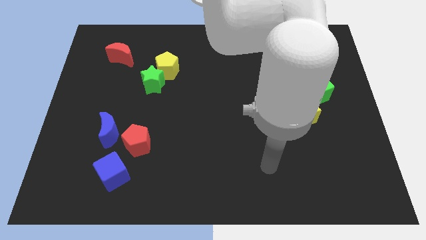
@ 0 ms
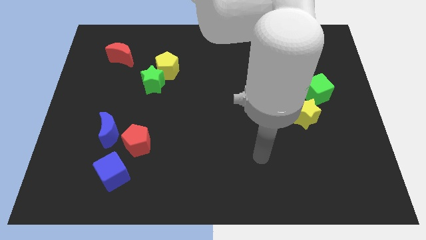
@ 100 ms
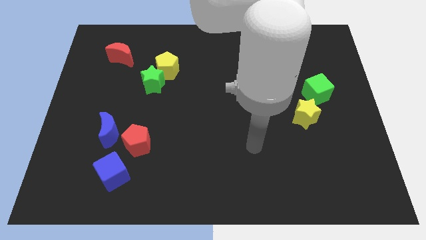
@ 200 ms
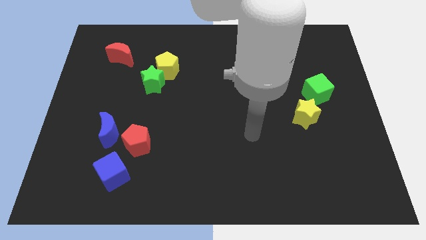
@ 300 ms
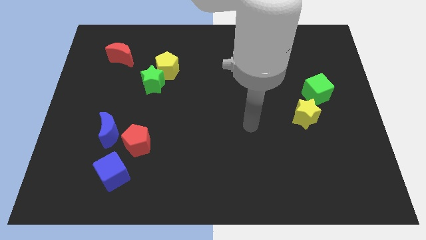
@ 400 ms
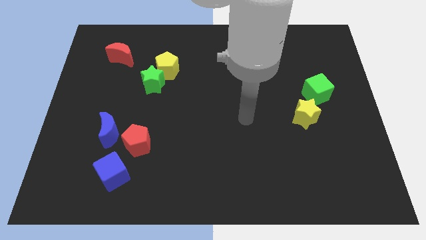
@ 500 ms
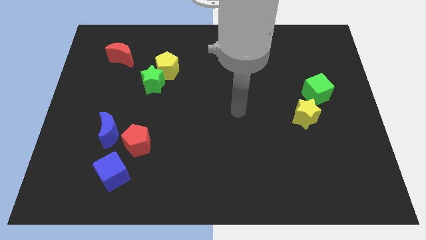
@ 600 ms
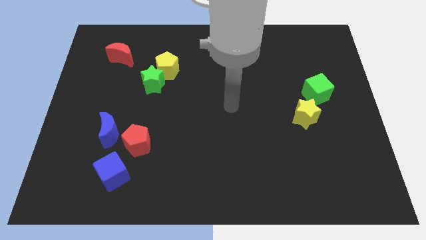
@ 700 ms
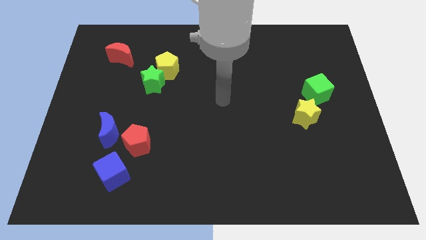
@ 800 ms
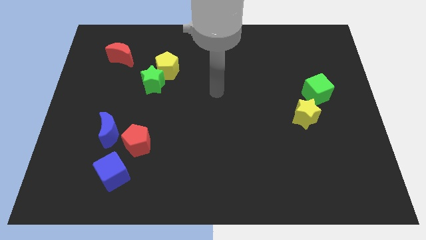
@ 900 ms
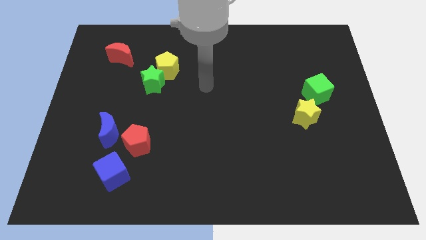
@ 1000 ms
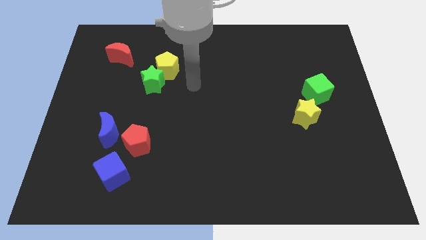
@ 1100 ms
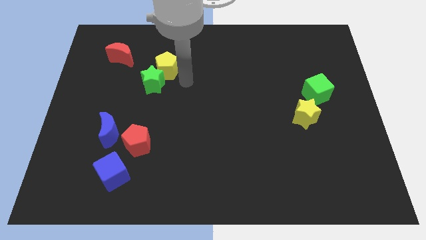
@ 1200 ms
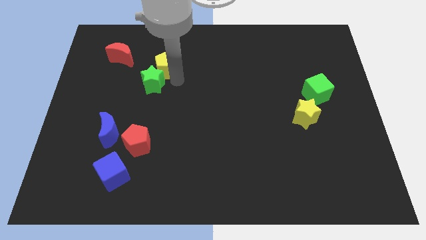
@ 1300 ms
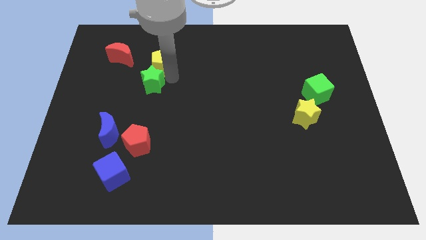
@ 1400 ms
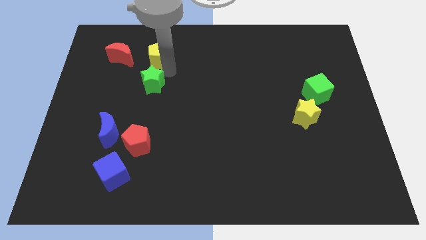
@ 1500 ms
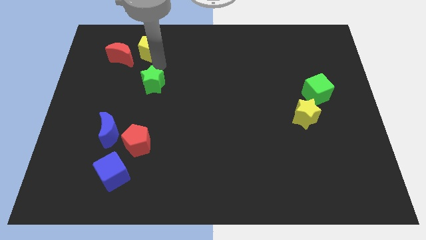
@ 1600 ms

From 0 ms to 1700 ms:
pull the green star apart from the yellow pentagon

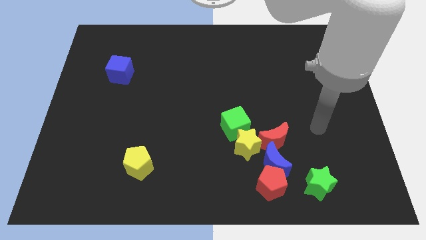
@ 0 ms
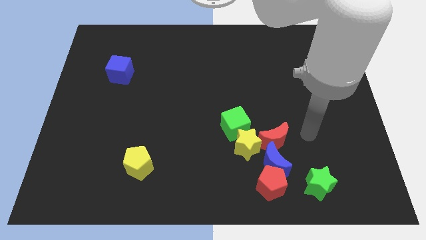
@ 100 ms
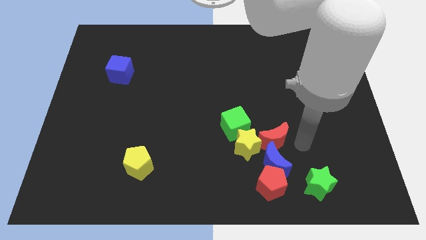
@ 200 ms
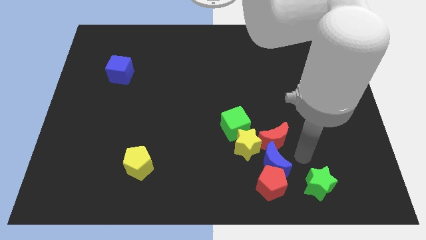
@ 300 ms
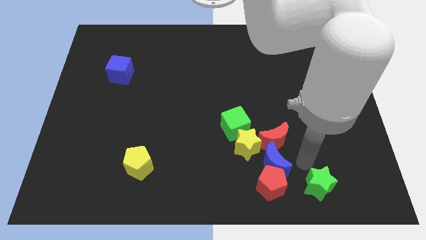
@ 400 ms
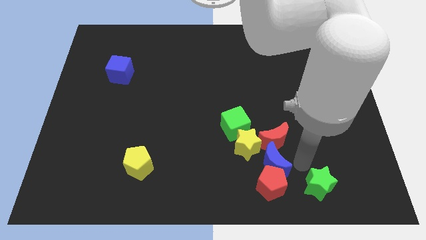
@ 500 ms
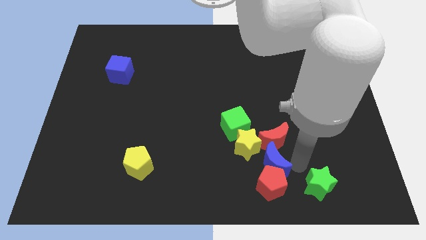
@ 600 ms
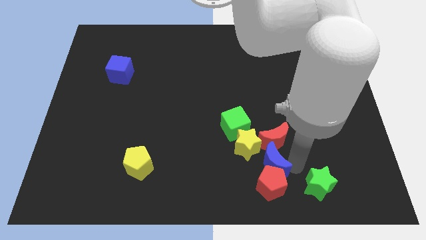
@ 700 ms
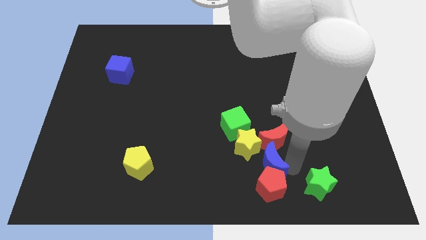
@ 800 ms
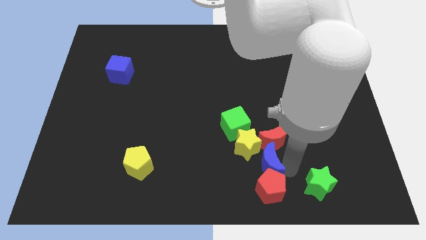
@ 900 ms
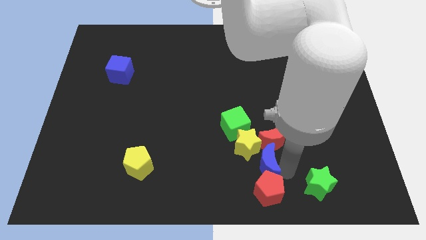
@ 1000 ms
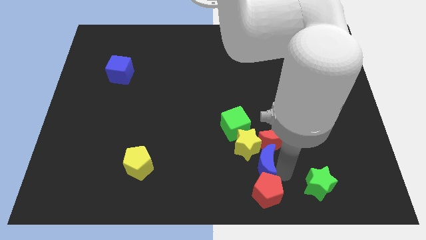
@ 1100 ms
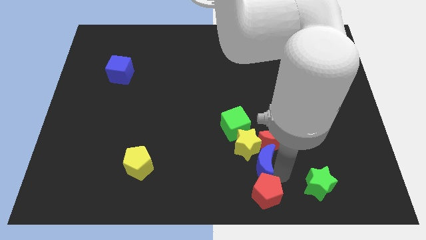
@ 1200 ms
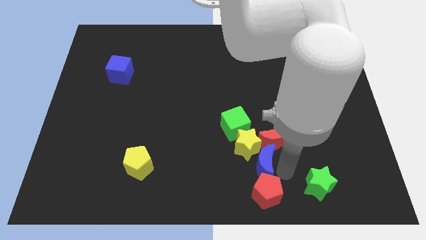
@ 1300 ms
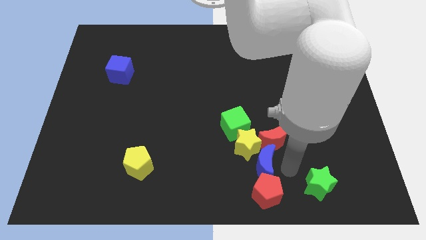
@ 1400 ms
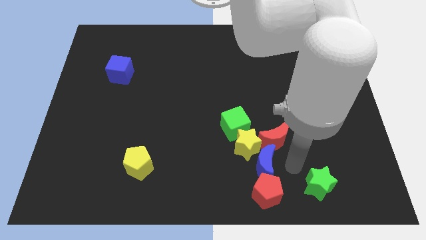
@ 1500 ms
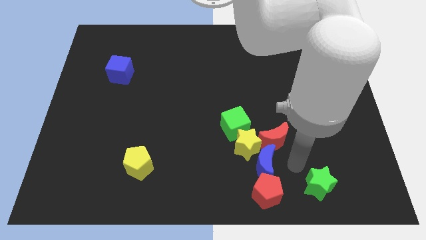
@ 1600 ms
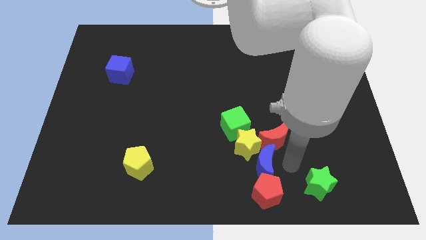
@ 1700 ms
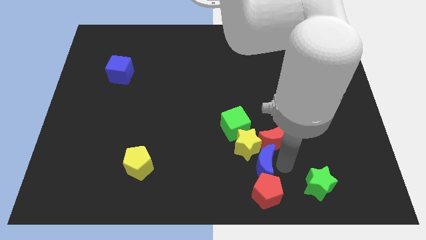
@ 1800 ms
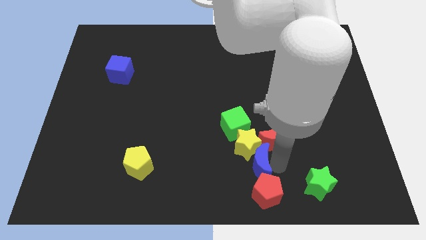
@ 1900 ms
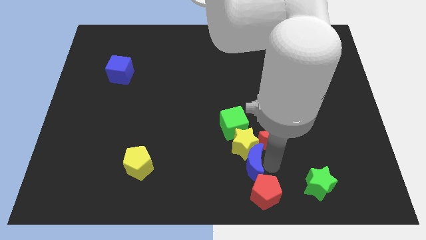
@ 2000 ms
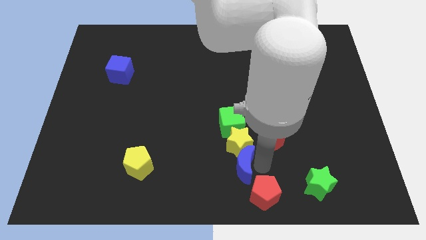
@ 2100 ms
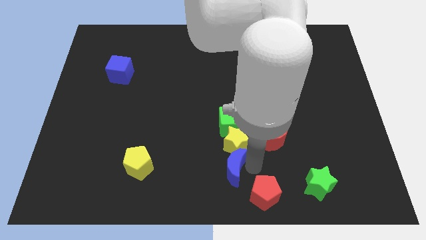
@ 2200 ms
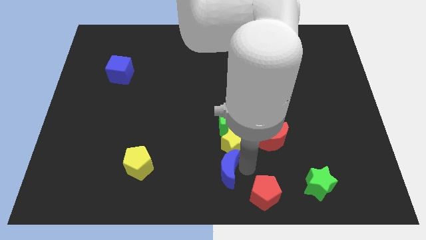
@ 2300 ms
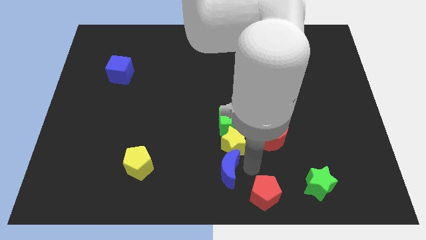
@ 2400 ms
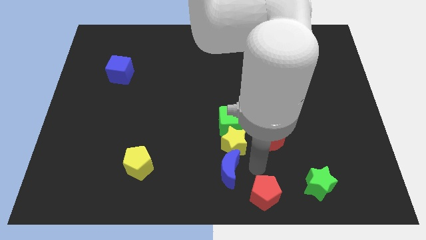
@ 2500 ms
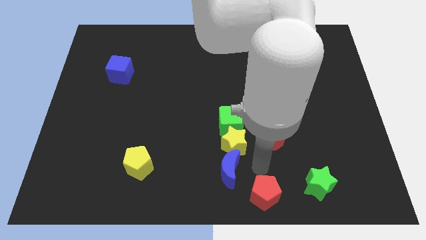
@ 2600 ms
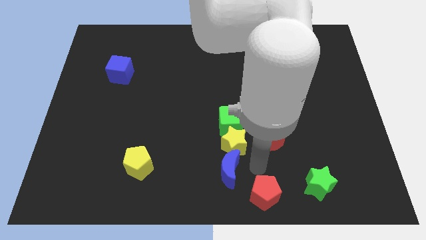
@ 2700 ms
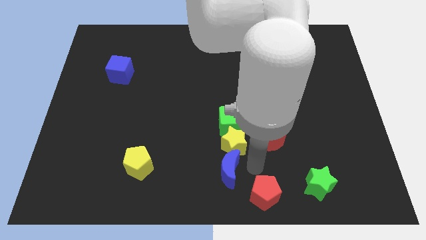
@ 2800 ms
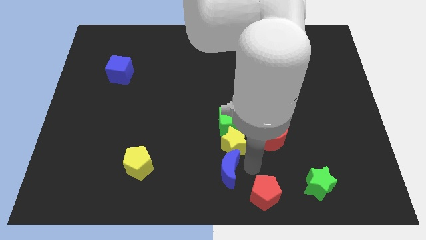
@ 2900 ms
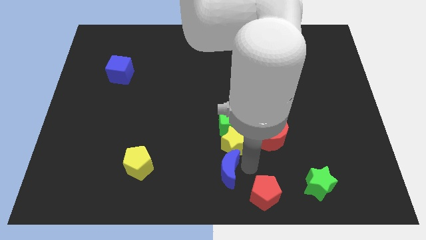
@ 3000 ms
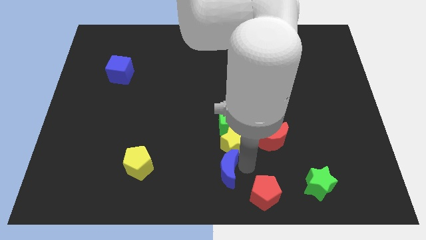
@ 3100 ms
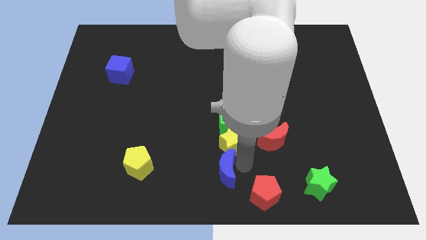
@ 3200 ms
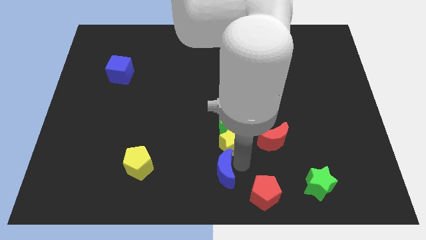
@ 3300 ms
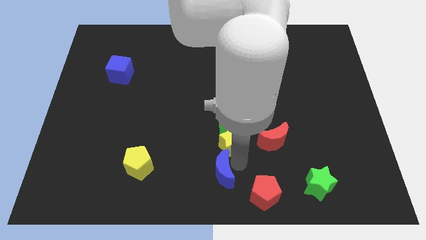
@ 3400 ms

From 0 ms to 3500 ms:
move the blue moon away from the clump

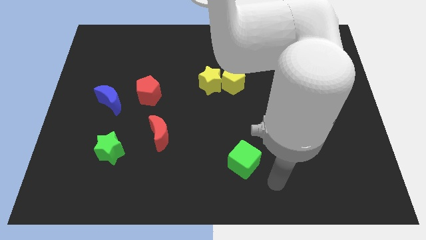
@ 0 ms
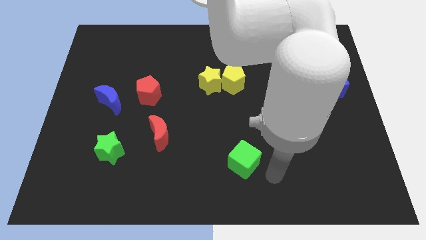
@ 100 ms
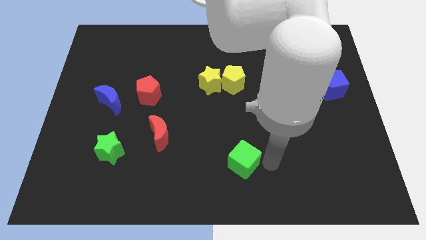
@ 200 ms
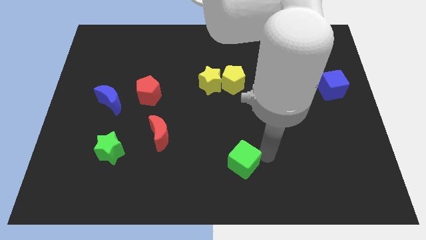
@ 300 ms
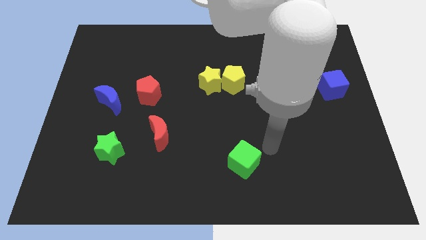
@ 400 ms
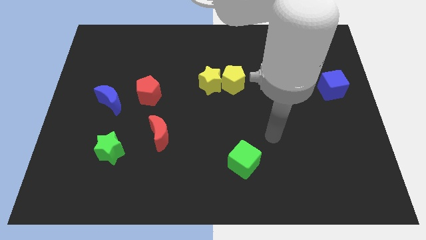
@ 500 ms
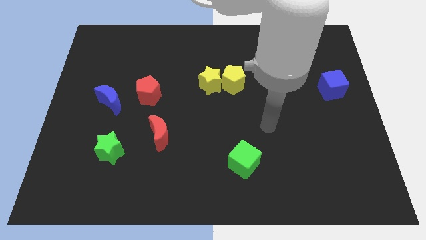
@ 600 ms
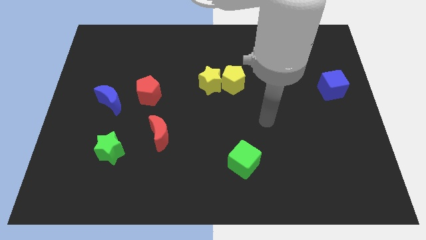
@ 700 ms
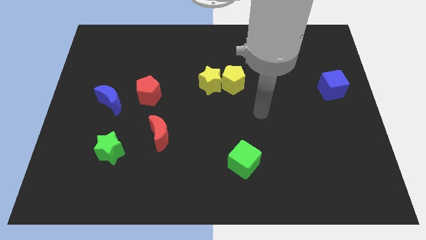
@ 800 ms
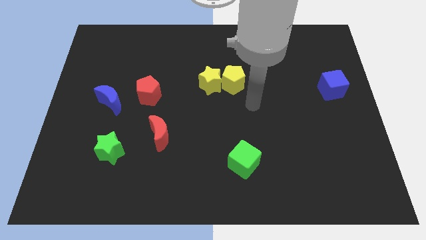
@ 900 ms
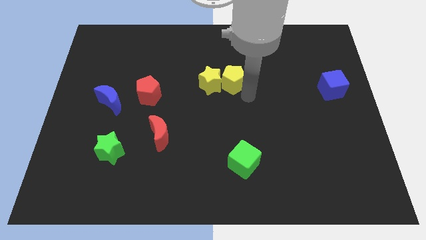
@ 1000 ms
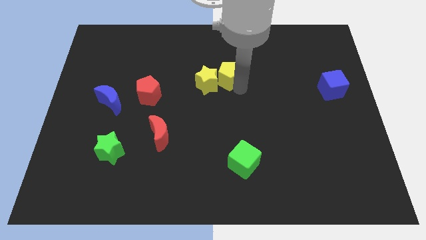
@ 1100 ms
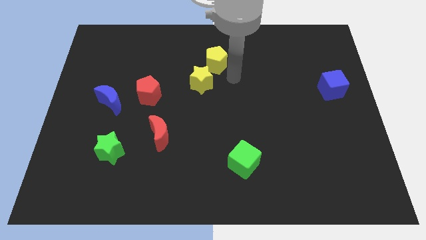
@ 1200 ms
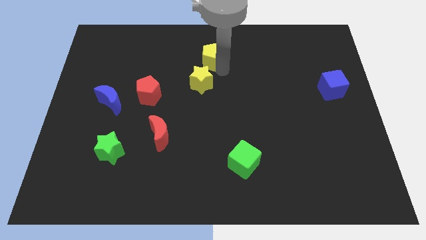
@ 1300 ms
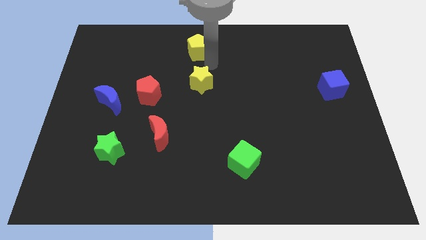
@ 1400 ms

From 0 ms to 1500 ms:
separate the yellow star from the yellow pentagon

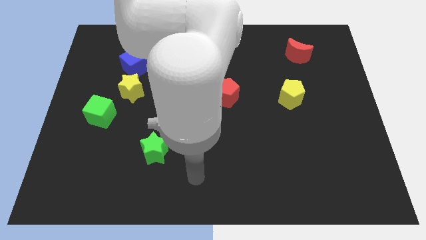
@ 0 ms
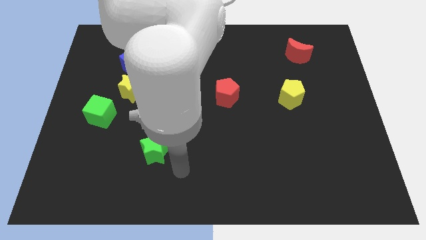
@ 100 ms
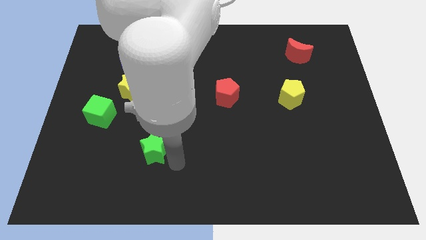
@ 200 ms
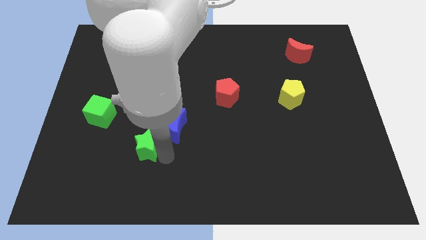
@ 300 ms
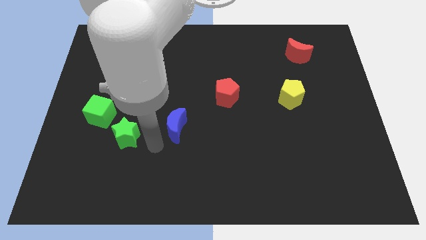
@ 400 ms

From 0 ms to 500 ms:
separate the blue moon from the green star

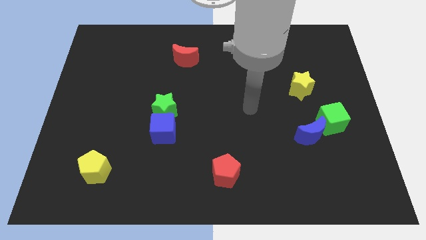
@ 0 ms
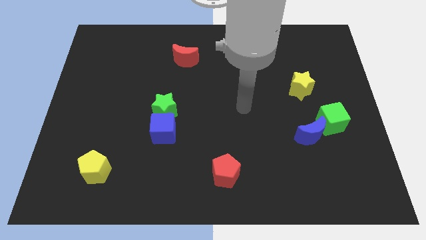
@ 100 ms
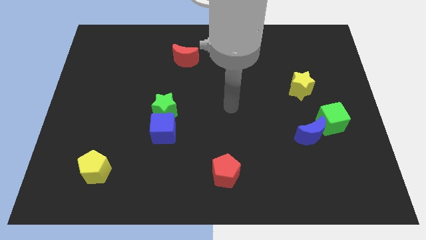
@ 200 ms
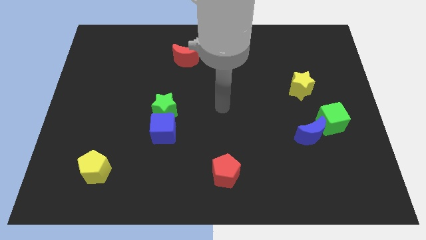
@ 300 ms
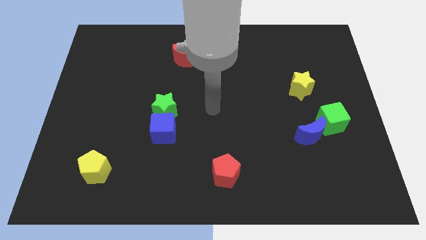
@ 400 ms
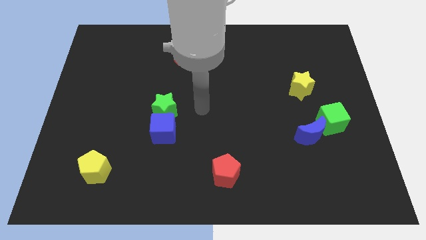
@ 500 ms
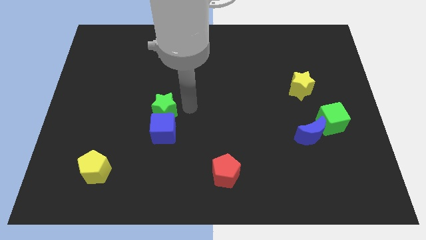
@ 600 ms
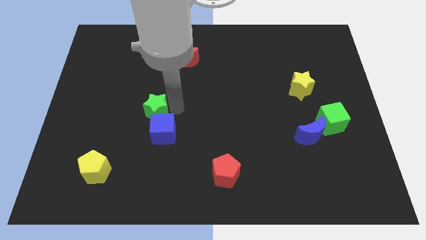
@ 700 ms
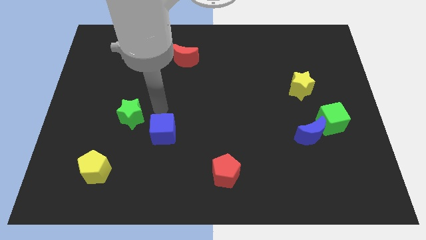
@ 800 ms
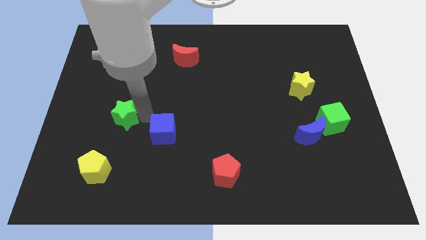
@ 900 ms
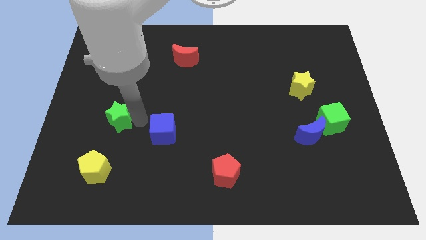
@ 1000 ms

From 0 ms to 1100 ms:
move the blue cube away from the green star

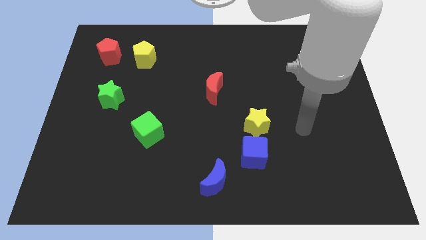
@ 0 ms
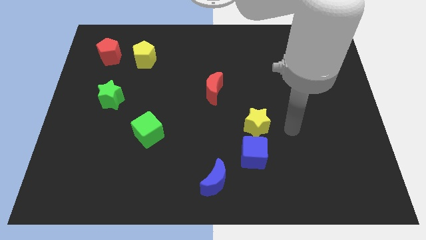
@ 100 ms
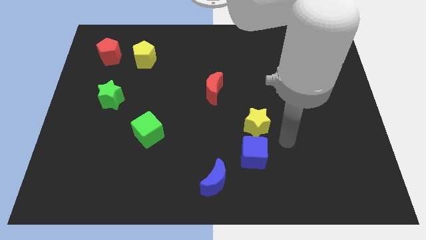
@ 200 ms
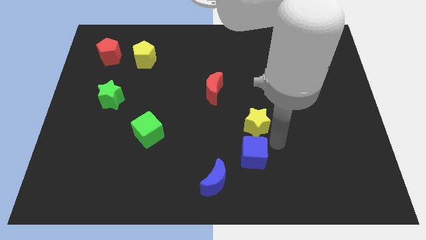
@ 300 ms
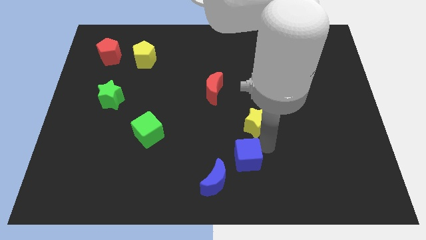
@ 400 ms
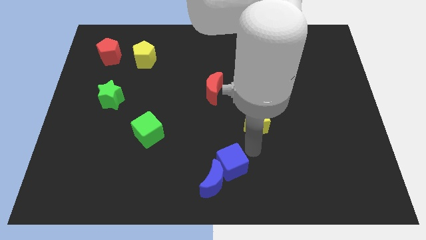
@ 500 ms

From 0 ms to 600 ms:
move the yellow star away from the blue cube

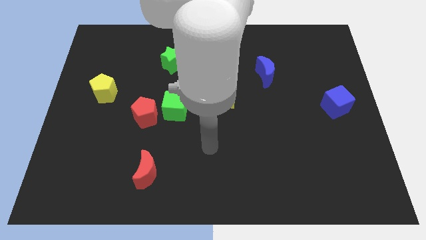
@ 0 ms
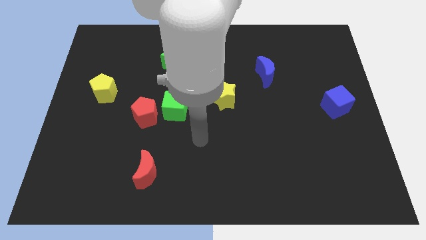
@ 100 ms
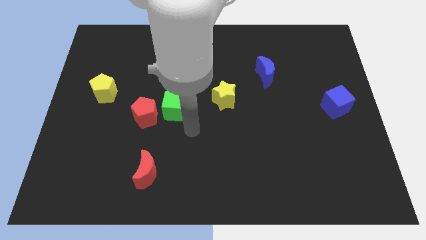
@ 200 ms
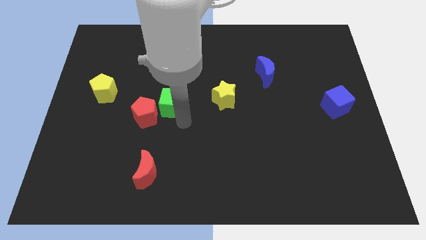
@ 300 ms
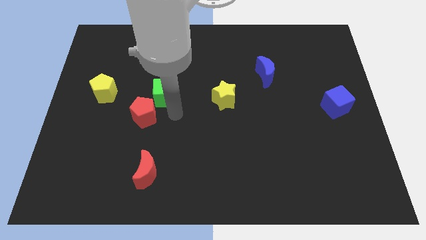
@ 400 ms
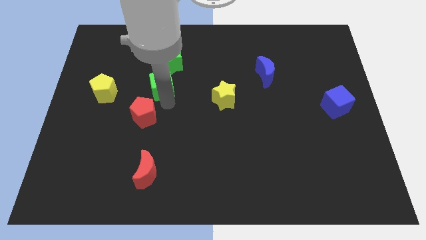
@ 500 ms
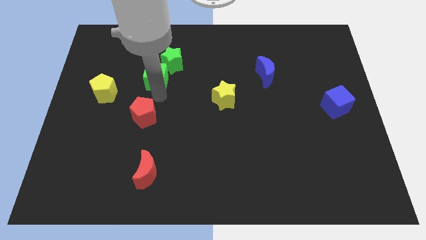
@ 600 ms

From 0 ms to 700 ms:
pull the red pentagon apart from the green cube
